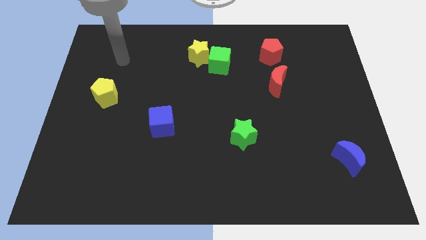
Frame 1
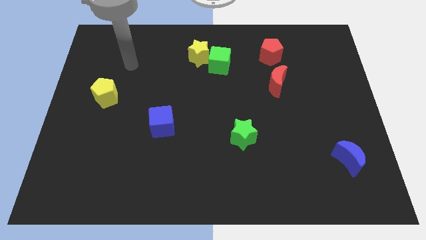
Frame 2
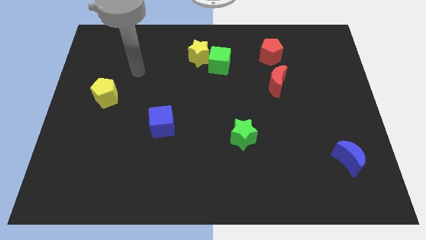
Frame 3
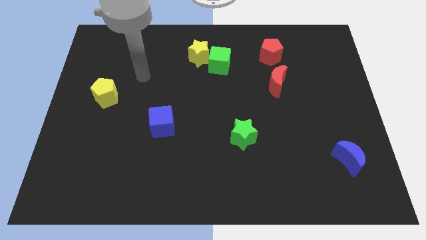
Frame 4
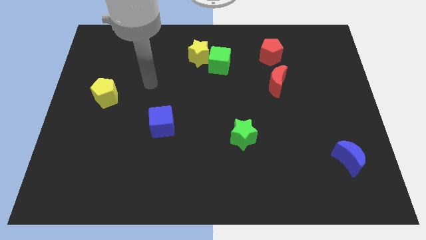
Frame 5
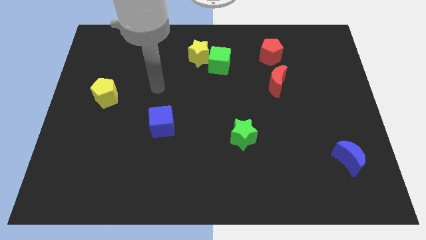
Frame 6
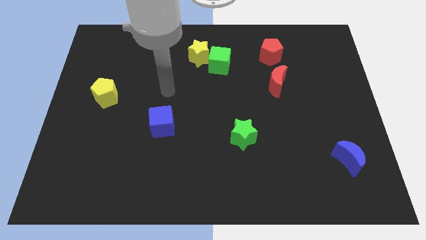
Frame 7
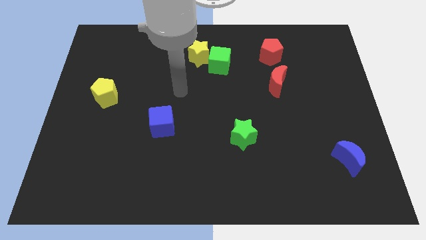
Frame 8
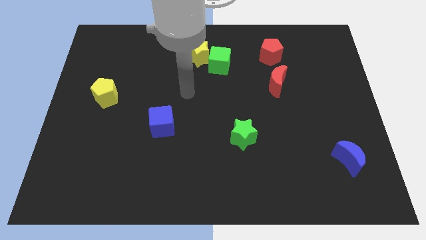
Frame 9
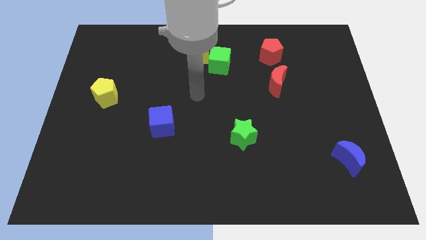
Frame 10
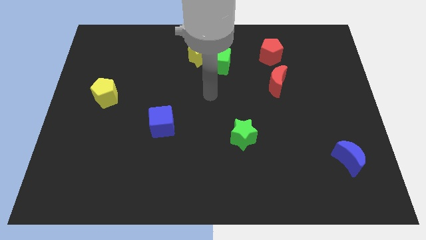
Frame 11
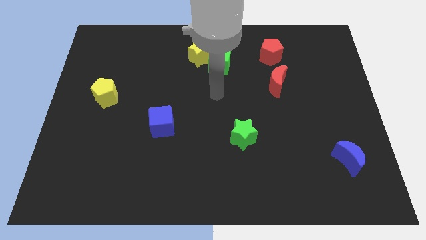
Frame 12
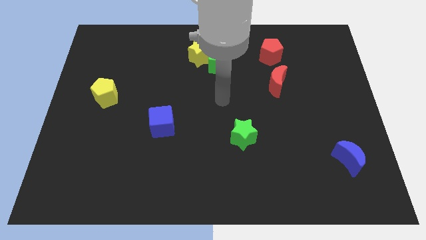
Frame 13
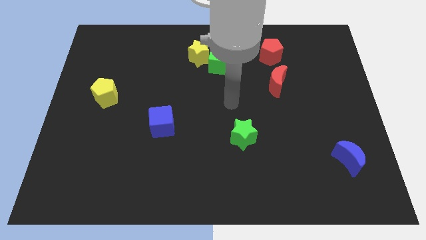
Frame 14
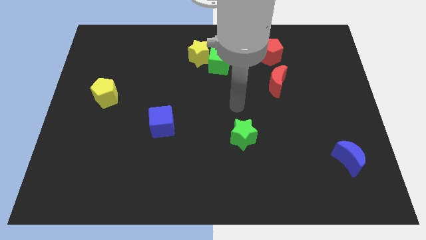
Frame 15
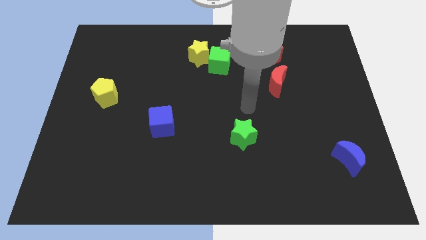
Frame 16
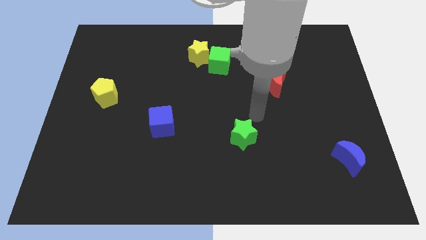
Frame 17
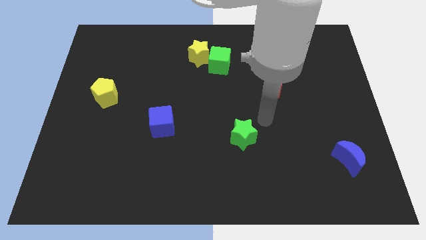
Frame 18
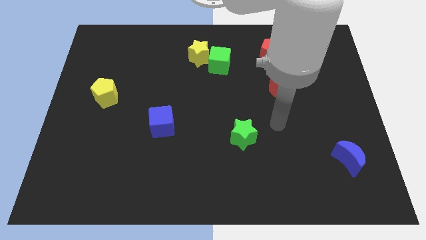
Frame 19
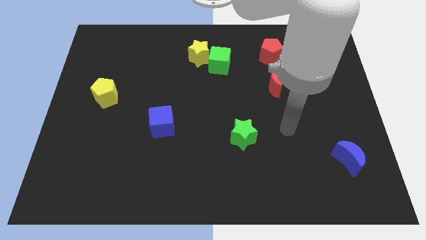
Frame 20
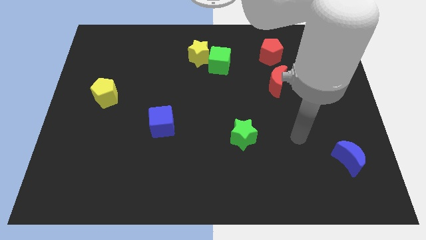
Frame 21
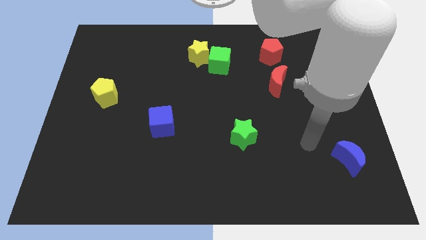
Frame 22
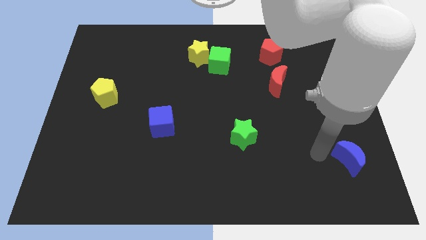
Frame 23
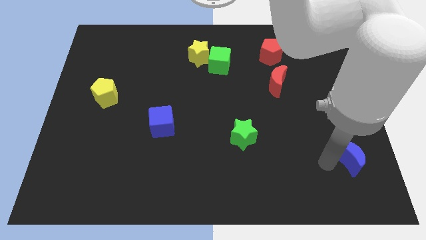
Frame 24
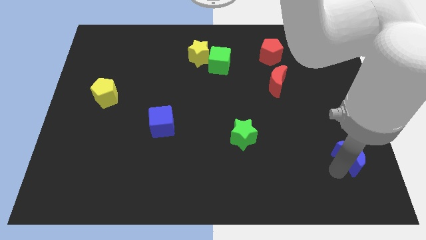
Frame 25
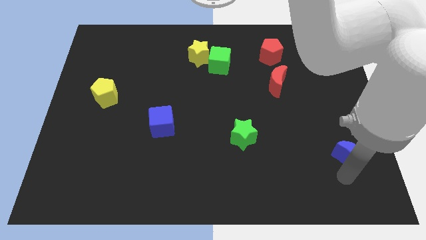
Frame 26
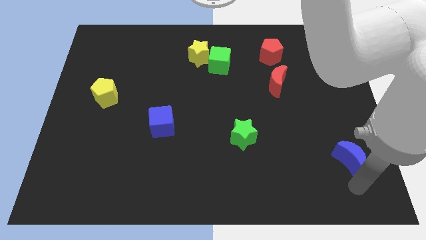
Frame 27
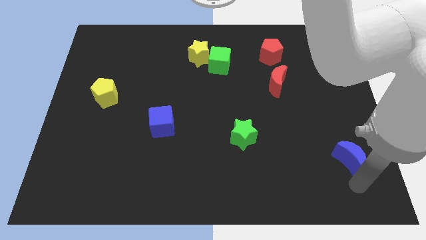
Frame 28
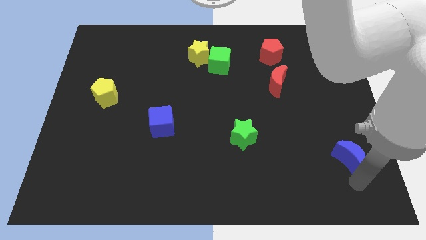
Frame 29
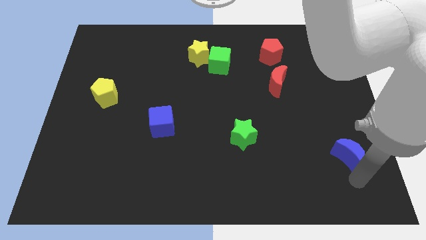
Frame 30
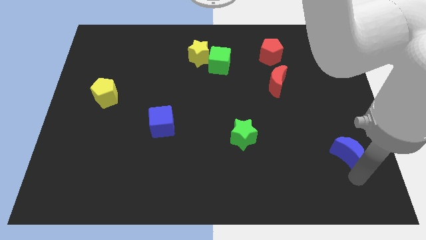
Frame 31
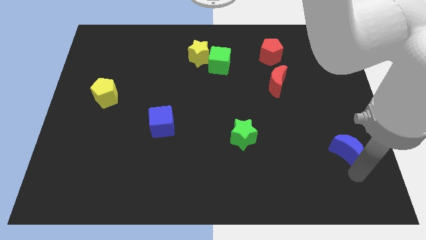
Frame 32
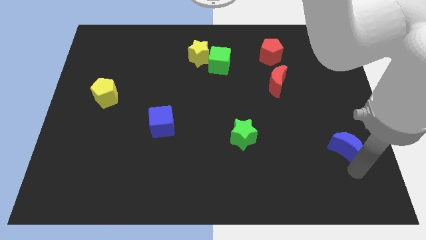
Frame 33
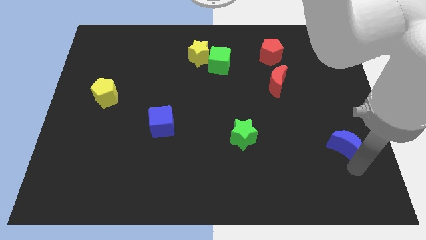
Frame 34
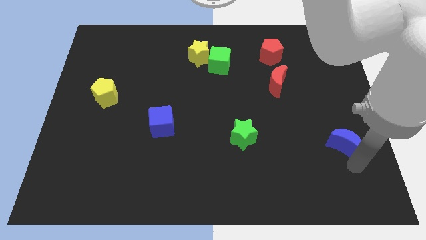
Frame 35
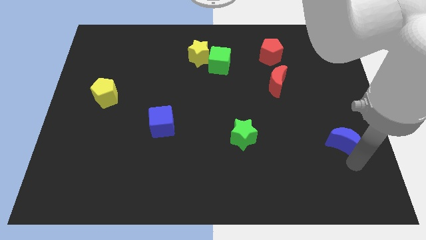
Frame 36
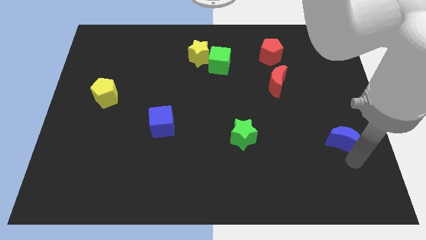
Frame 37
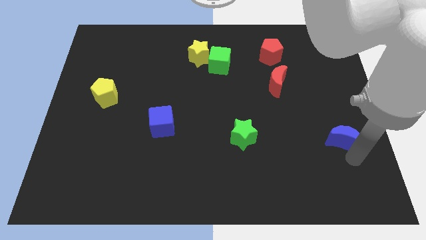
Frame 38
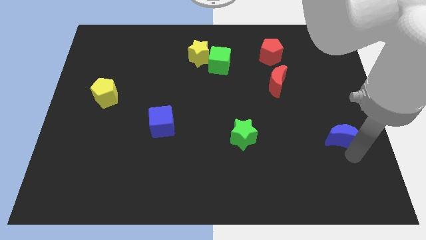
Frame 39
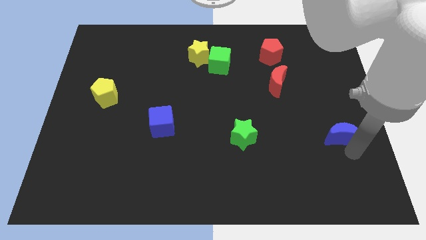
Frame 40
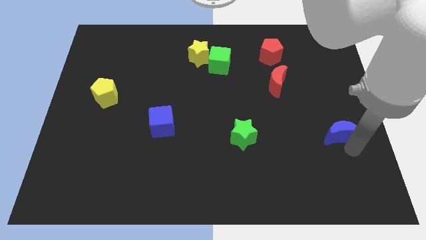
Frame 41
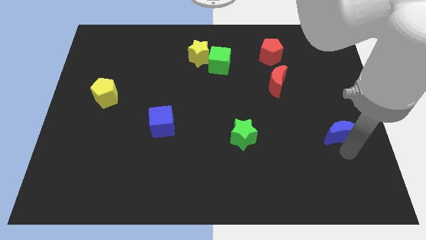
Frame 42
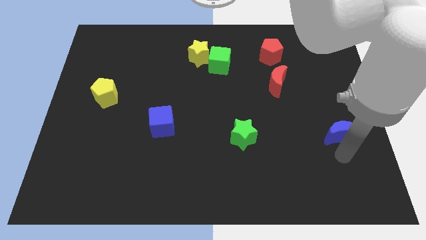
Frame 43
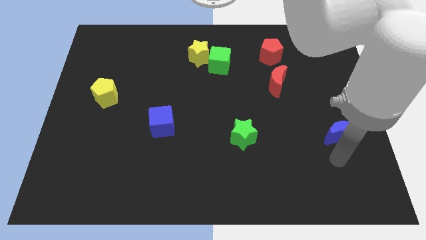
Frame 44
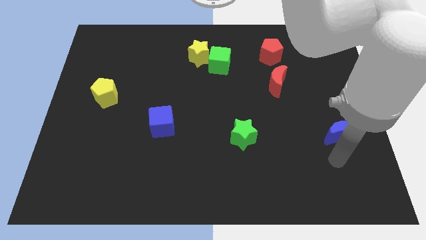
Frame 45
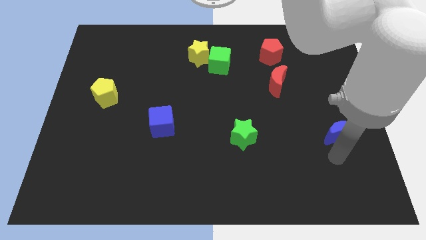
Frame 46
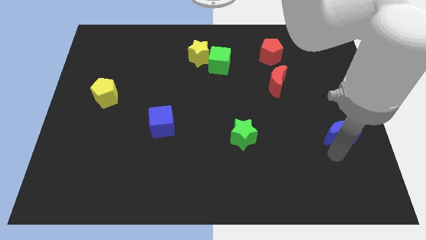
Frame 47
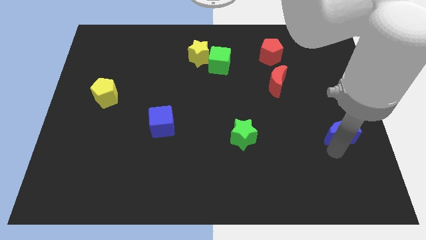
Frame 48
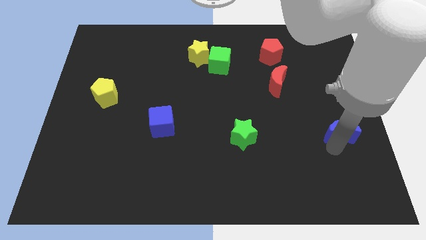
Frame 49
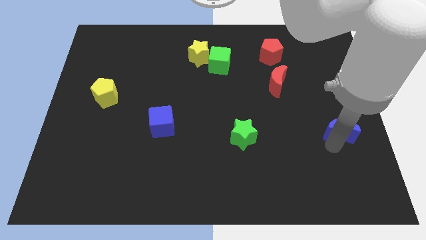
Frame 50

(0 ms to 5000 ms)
slide the blue moon up a little bit

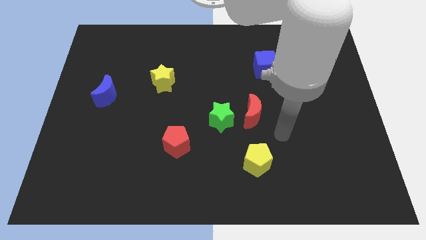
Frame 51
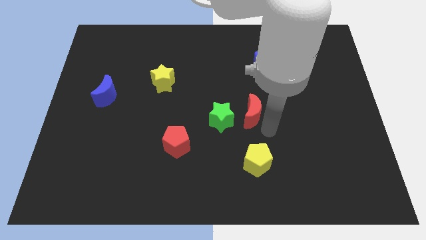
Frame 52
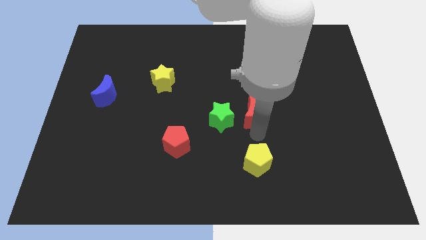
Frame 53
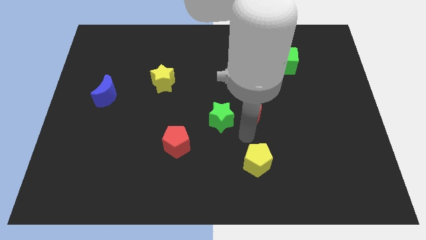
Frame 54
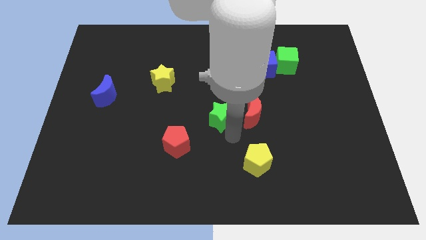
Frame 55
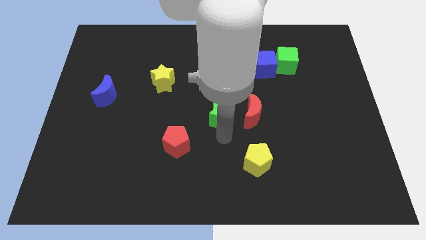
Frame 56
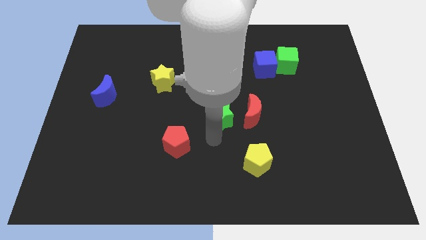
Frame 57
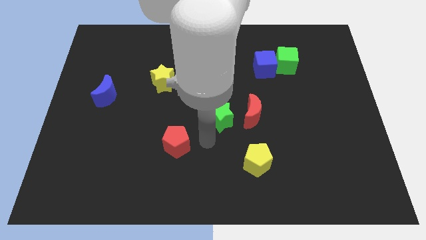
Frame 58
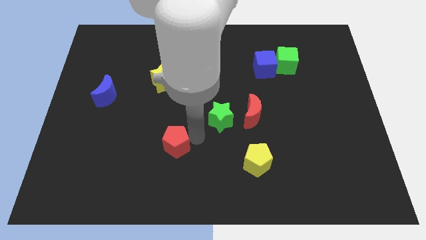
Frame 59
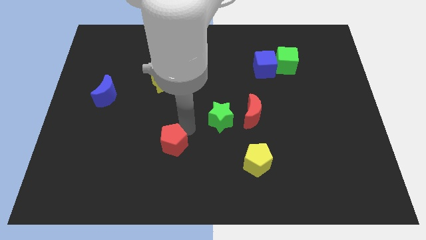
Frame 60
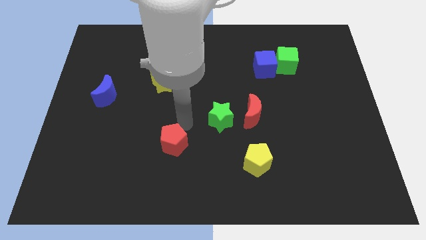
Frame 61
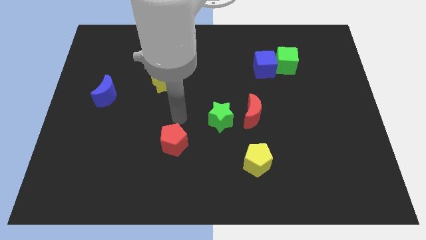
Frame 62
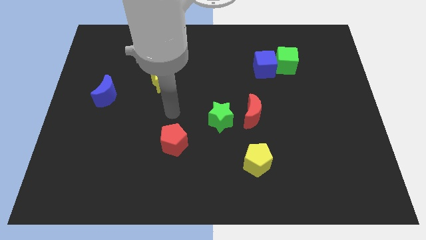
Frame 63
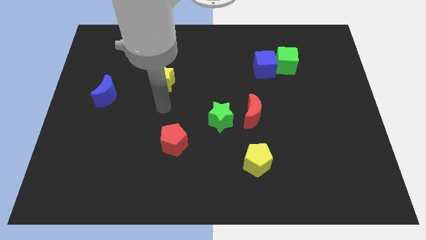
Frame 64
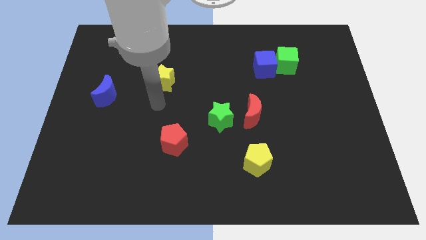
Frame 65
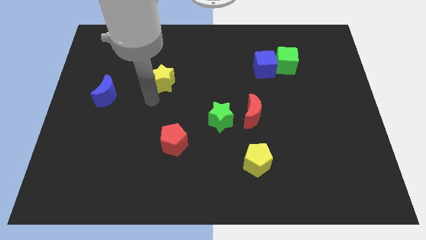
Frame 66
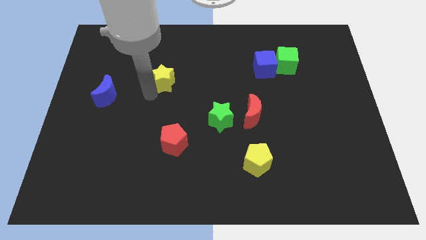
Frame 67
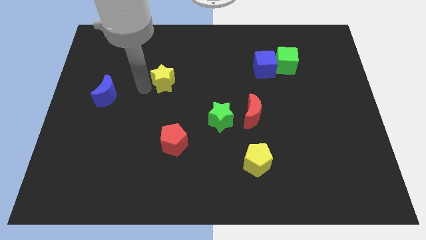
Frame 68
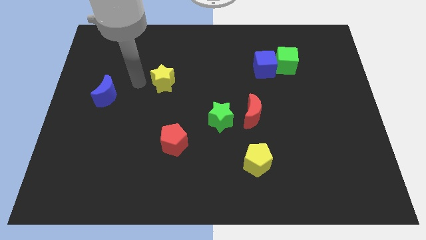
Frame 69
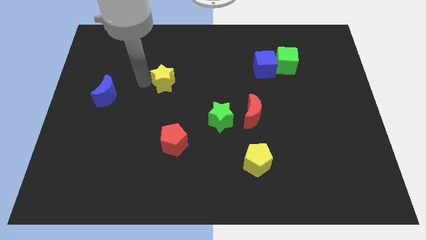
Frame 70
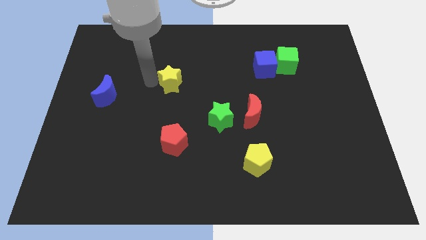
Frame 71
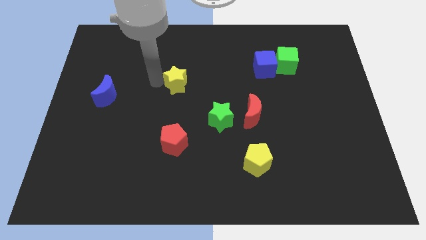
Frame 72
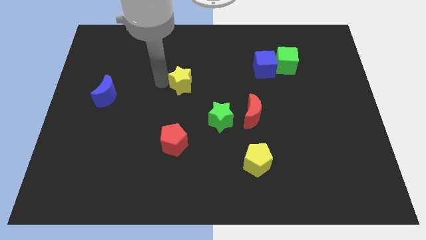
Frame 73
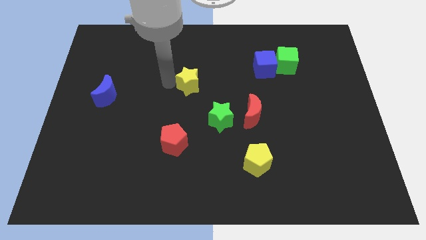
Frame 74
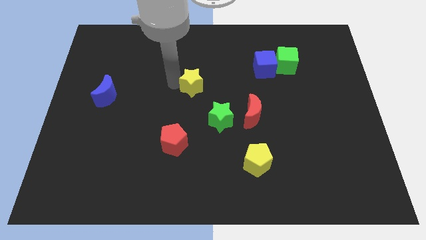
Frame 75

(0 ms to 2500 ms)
move the yellow star to the right a bit

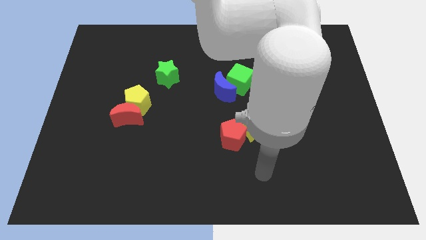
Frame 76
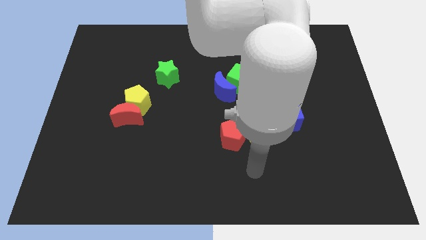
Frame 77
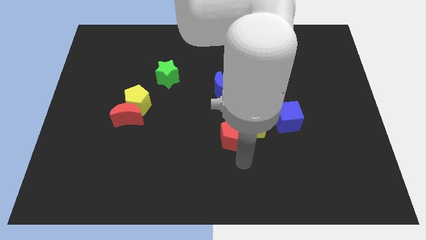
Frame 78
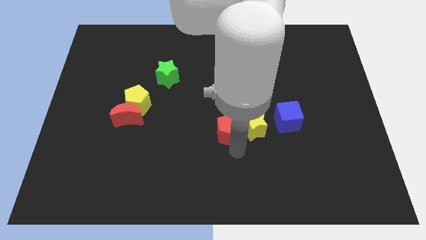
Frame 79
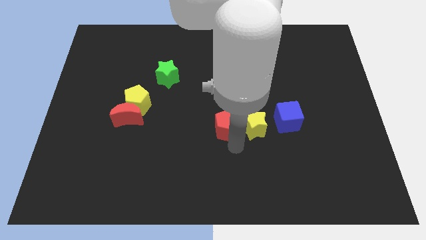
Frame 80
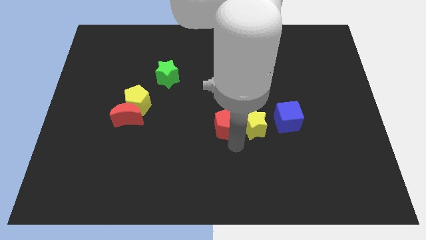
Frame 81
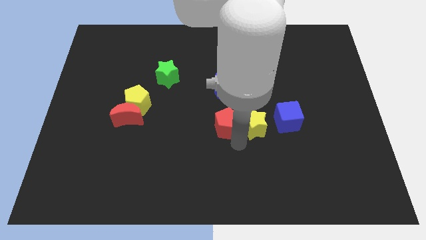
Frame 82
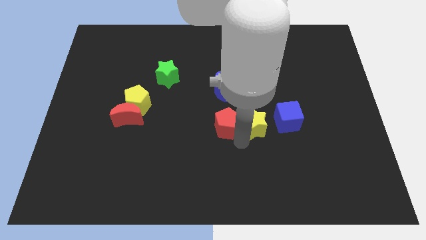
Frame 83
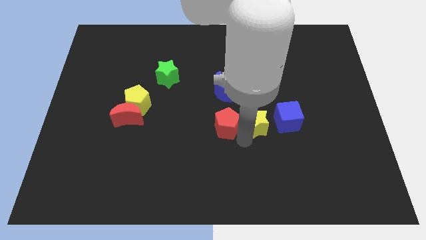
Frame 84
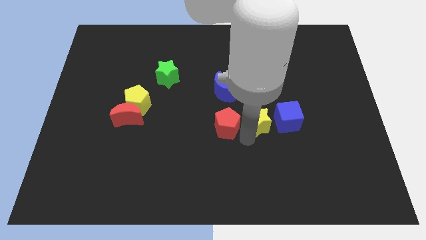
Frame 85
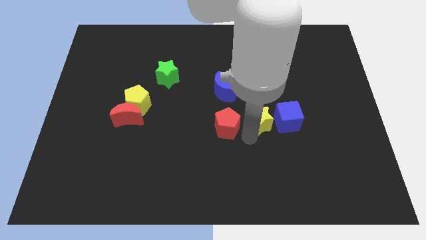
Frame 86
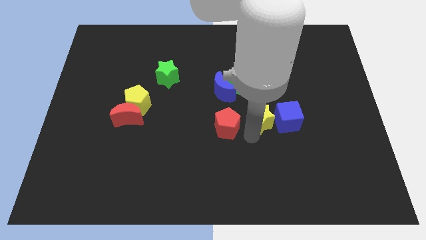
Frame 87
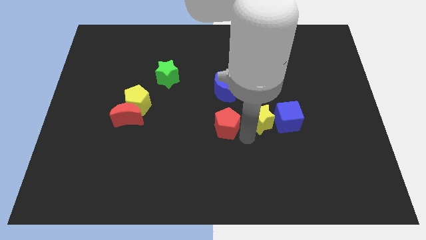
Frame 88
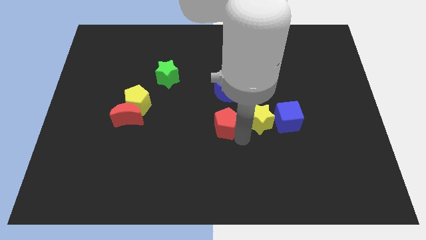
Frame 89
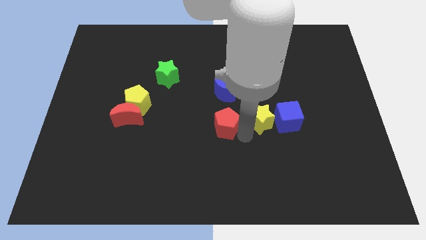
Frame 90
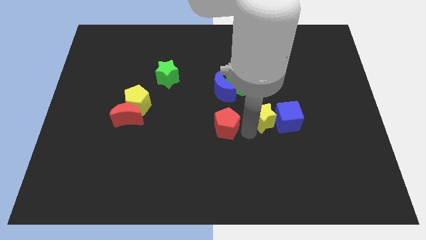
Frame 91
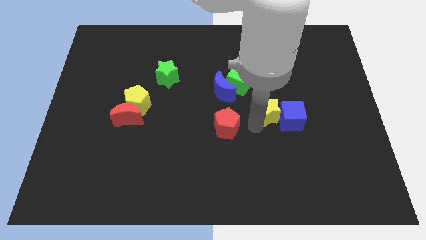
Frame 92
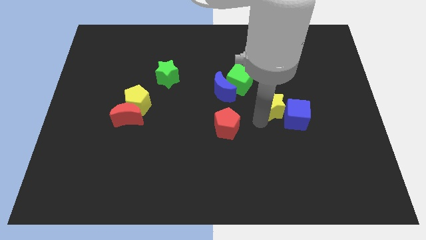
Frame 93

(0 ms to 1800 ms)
slightly move the yellow star upwards and then to the right
